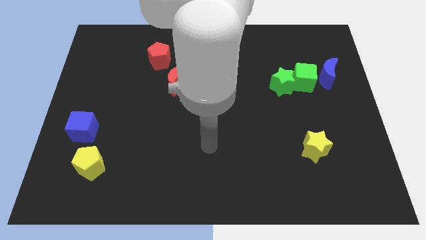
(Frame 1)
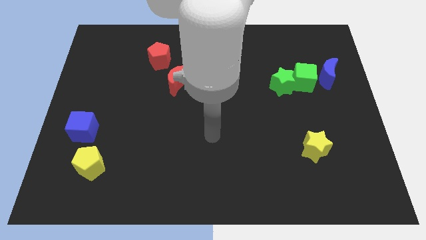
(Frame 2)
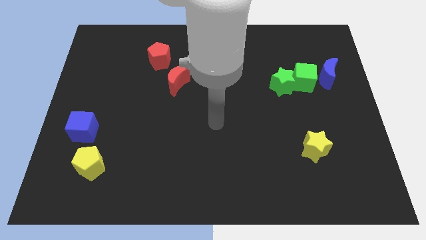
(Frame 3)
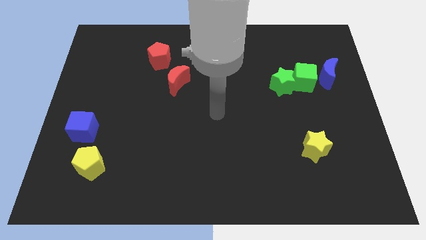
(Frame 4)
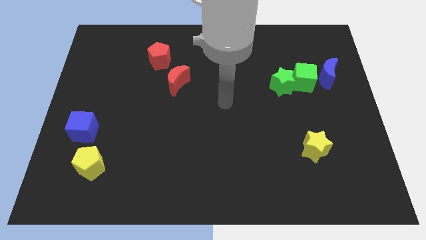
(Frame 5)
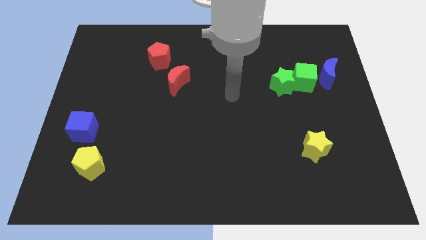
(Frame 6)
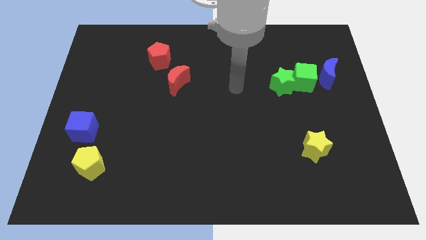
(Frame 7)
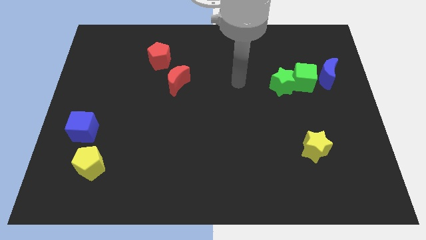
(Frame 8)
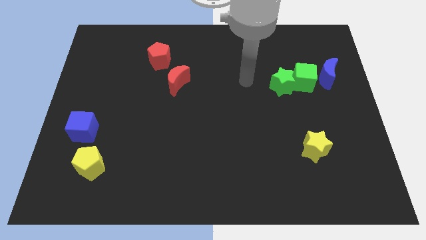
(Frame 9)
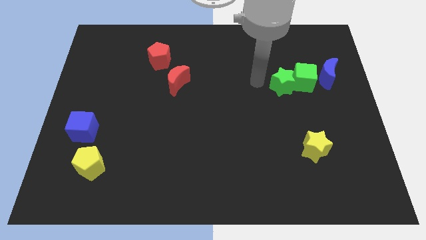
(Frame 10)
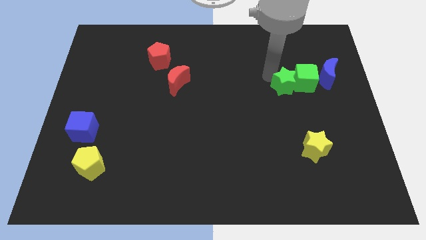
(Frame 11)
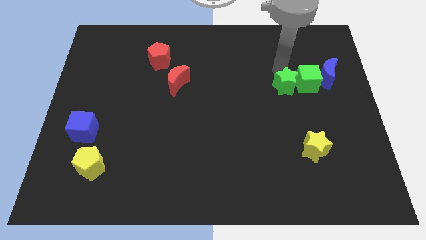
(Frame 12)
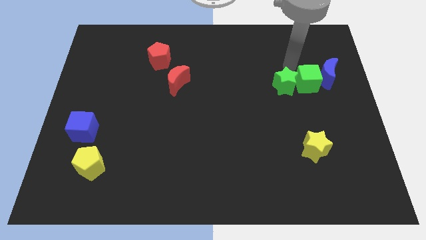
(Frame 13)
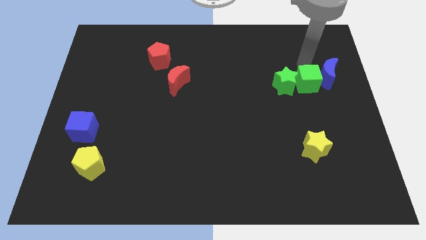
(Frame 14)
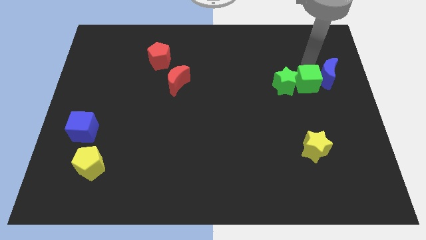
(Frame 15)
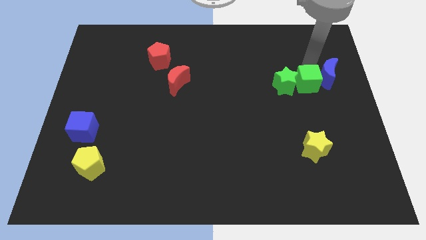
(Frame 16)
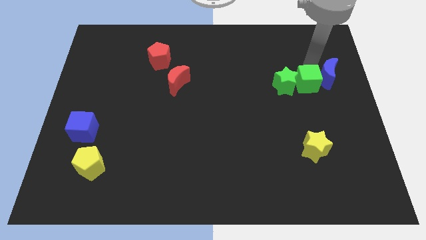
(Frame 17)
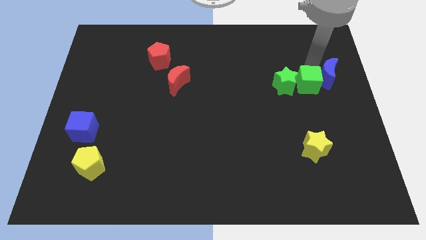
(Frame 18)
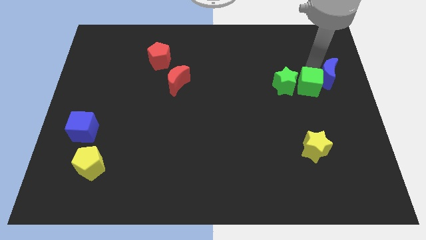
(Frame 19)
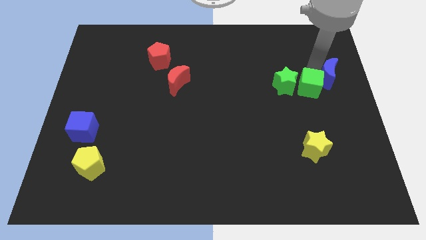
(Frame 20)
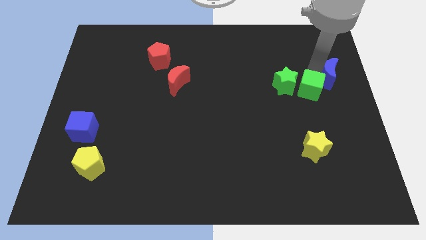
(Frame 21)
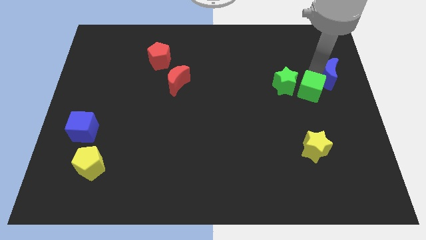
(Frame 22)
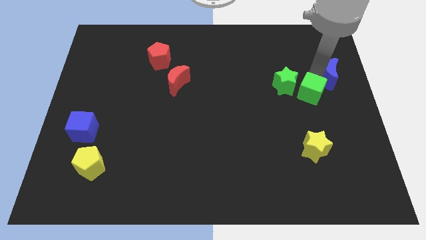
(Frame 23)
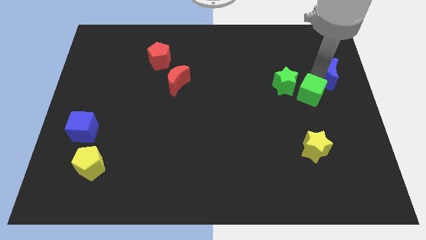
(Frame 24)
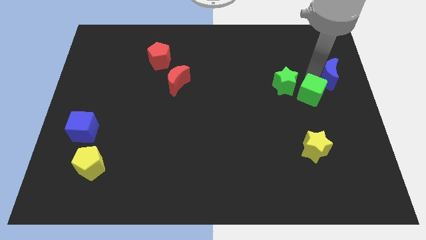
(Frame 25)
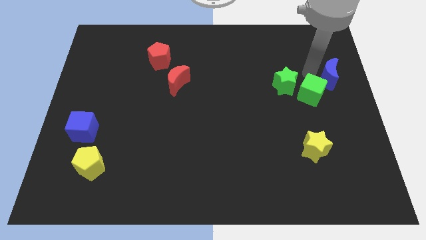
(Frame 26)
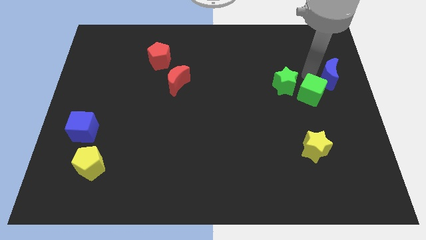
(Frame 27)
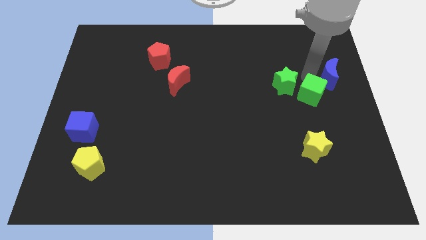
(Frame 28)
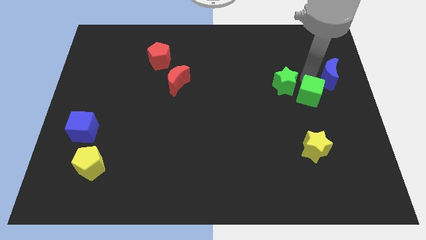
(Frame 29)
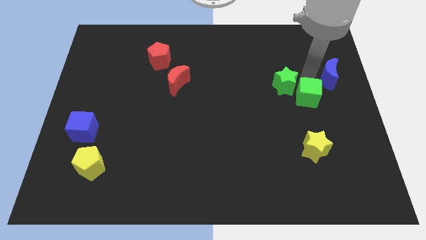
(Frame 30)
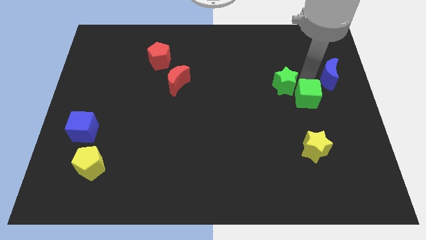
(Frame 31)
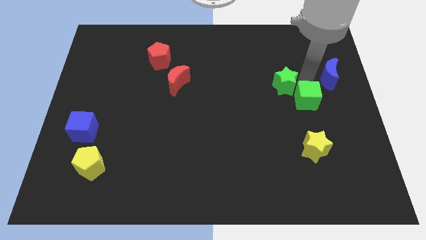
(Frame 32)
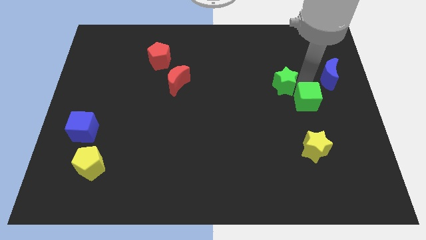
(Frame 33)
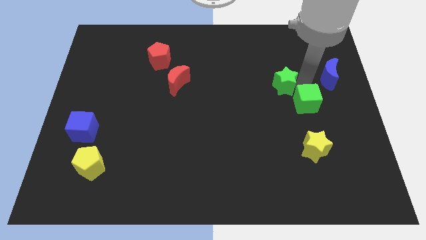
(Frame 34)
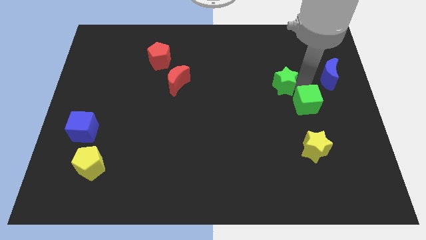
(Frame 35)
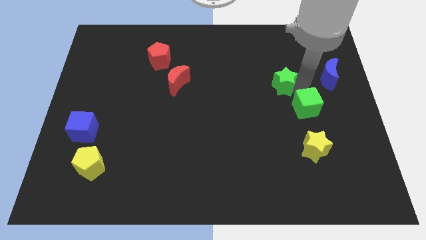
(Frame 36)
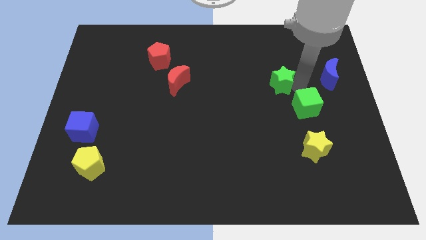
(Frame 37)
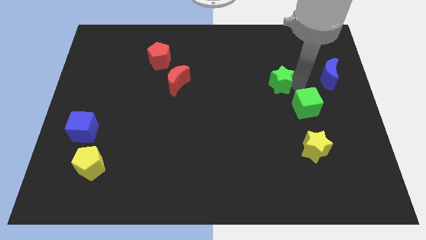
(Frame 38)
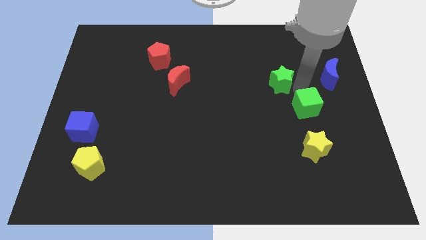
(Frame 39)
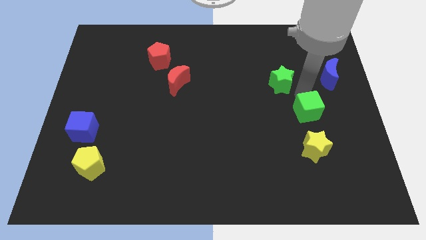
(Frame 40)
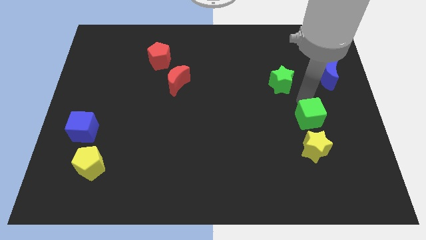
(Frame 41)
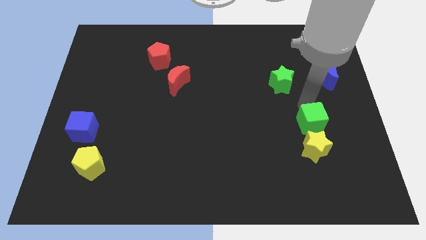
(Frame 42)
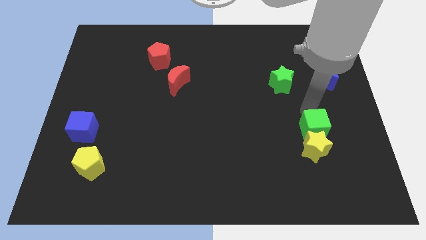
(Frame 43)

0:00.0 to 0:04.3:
move the green cube next to the yellow star

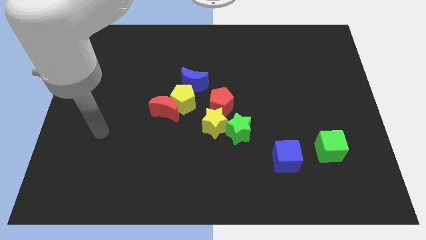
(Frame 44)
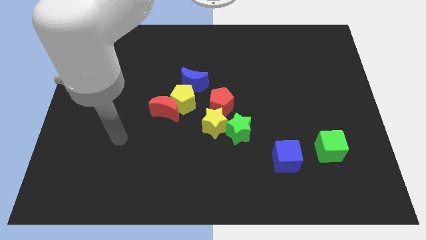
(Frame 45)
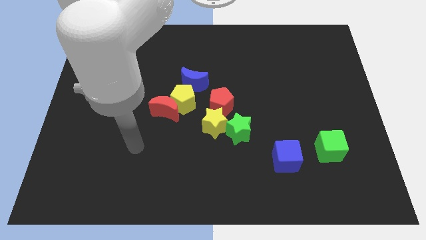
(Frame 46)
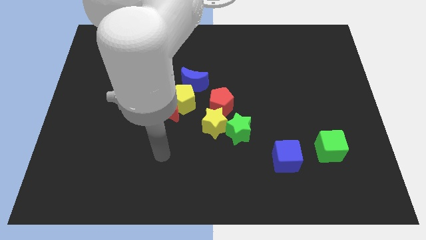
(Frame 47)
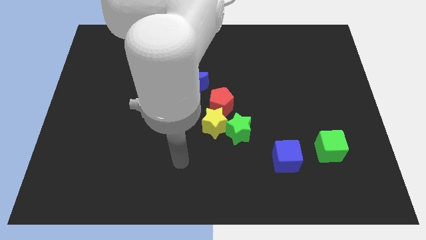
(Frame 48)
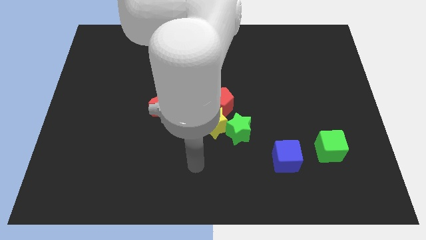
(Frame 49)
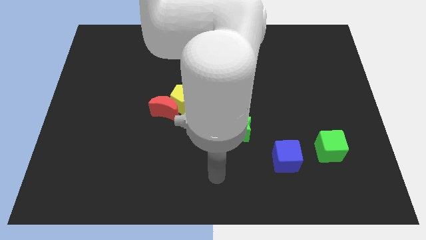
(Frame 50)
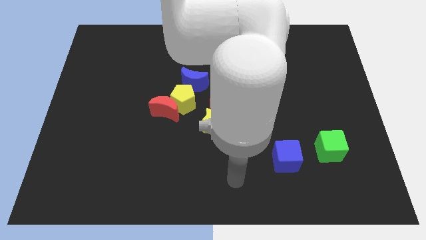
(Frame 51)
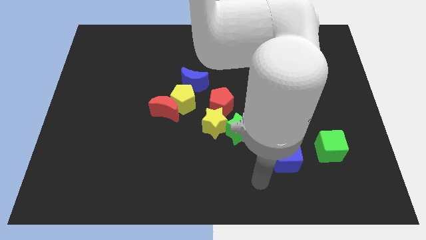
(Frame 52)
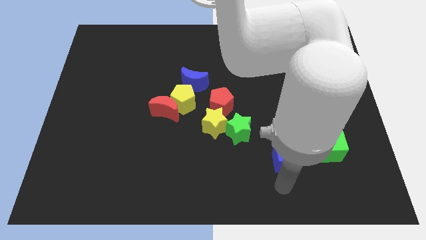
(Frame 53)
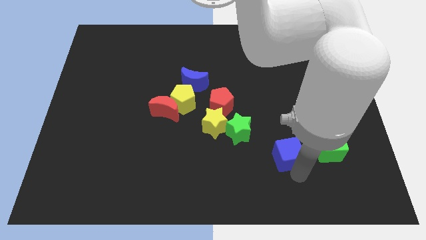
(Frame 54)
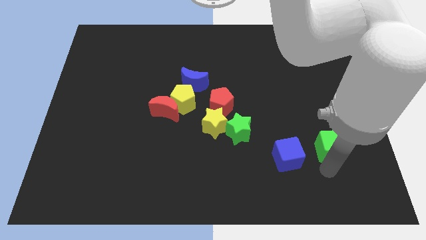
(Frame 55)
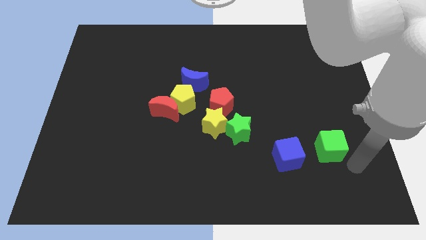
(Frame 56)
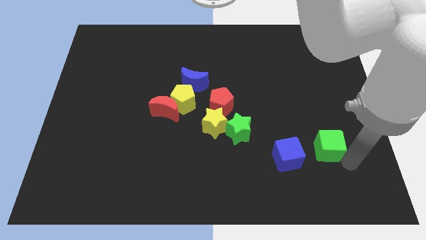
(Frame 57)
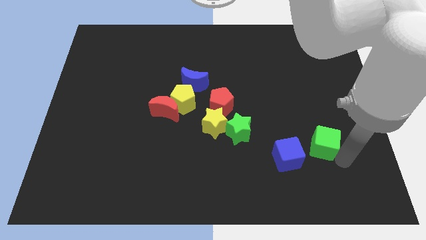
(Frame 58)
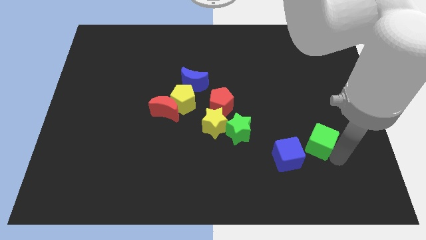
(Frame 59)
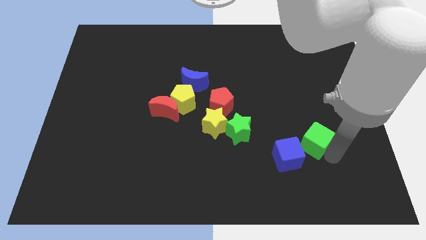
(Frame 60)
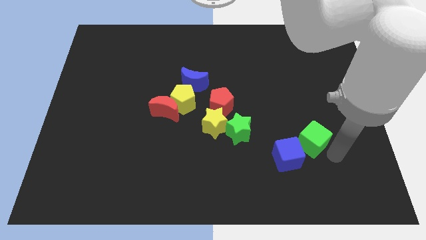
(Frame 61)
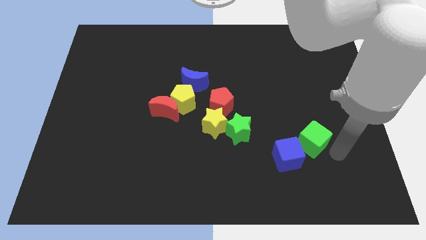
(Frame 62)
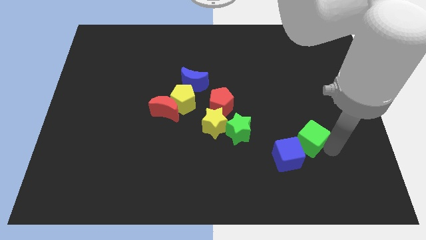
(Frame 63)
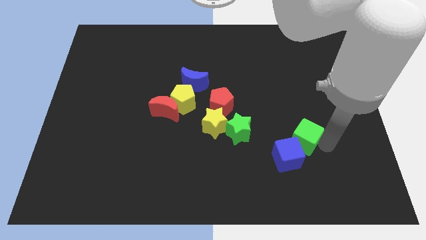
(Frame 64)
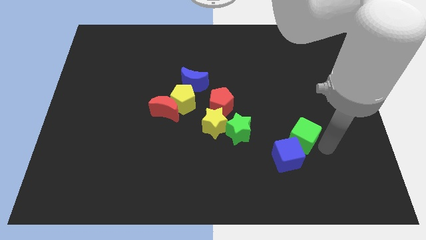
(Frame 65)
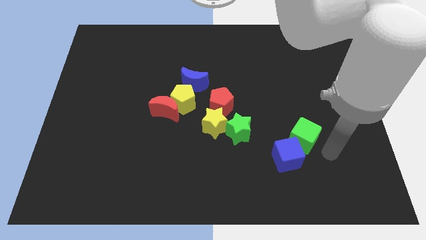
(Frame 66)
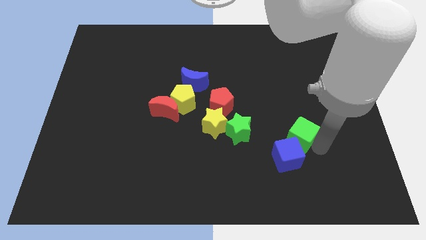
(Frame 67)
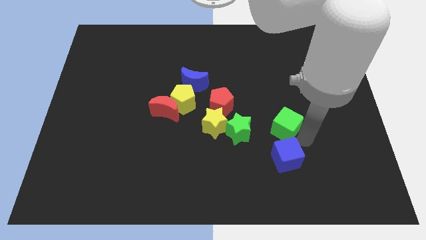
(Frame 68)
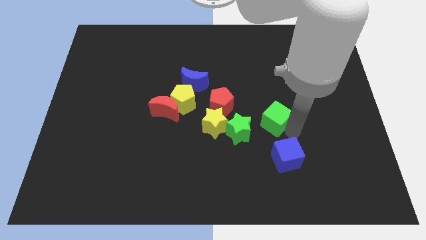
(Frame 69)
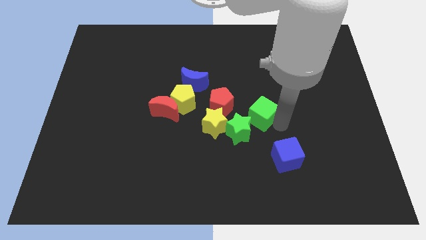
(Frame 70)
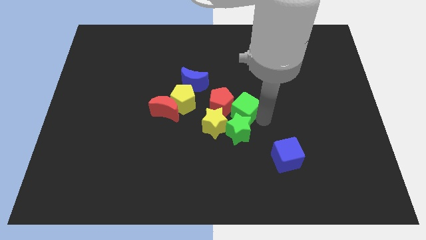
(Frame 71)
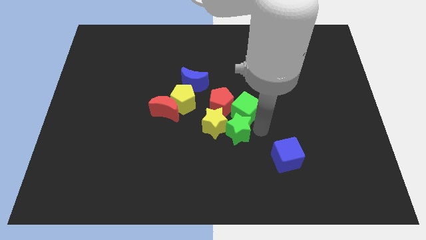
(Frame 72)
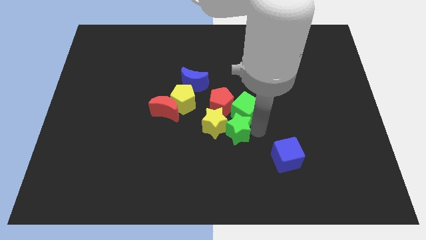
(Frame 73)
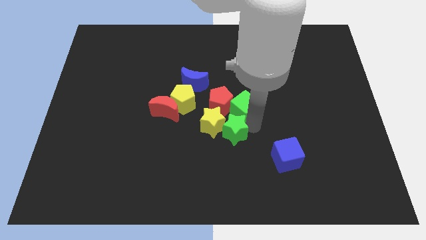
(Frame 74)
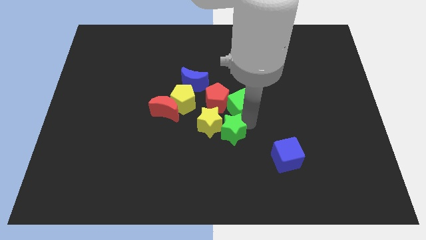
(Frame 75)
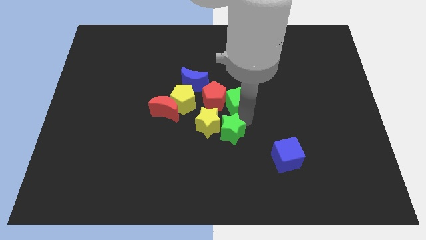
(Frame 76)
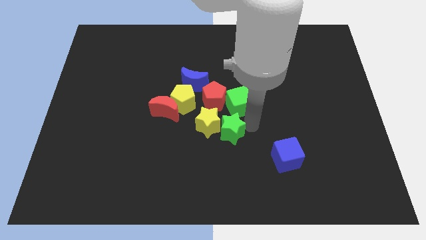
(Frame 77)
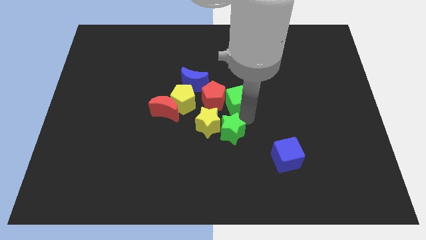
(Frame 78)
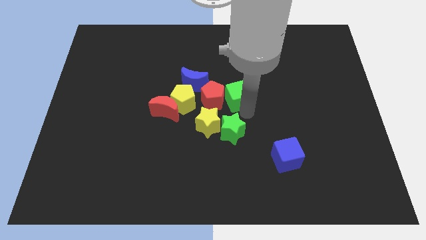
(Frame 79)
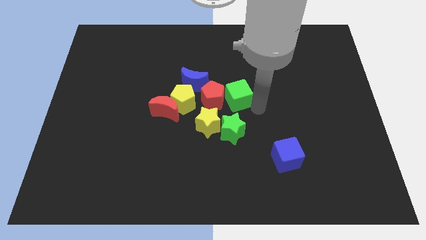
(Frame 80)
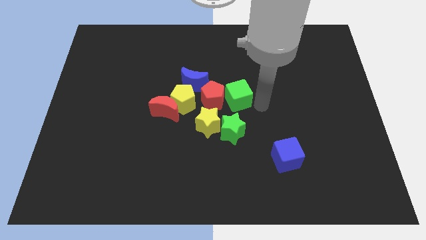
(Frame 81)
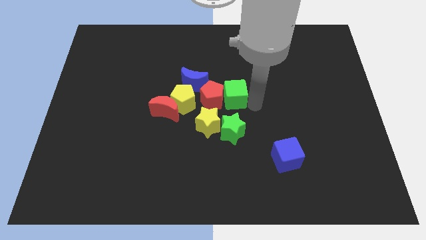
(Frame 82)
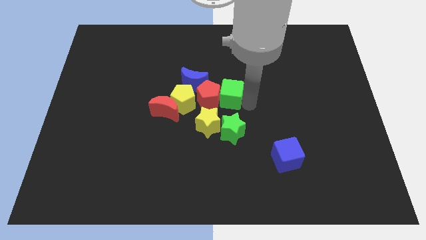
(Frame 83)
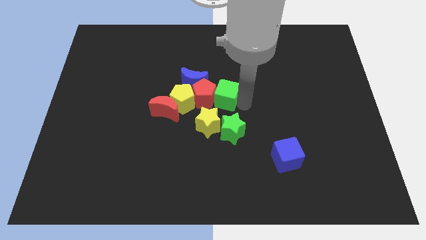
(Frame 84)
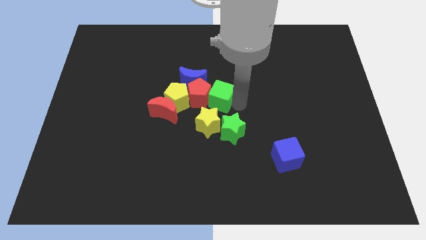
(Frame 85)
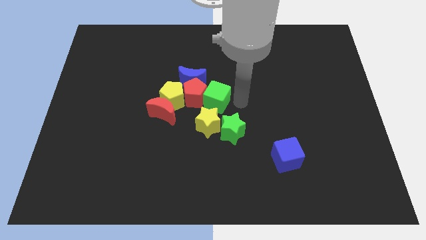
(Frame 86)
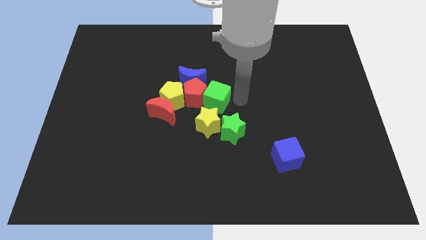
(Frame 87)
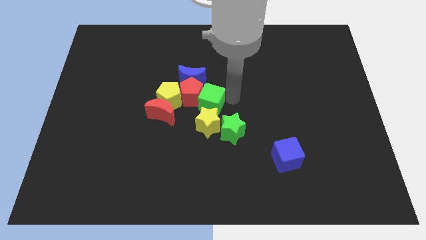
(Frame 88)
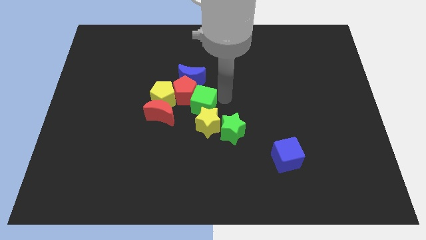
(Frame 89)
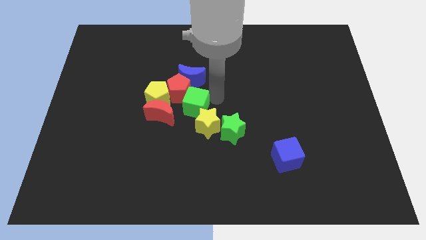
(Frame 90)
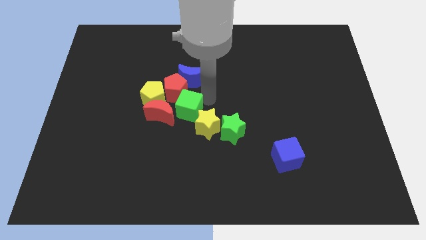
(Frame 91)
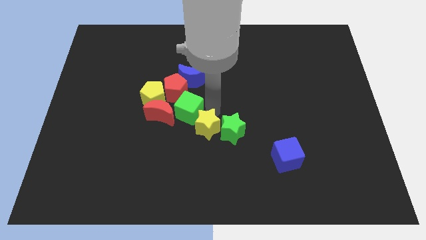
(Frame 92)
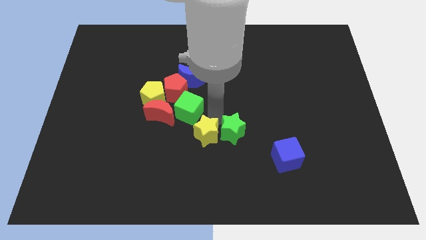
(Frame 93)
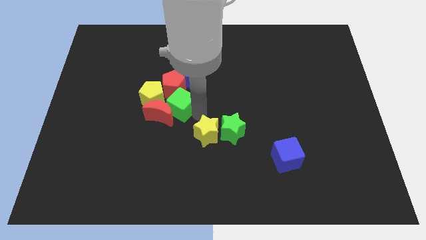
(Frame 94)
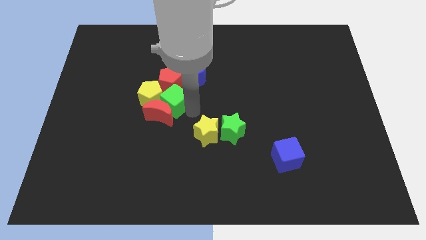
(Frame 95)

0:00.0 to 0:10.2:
move the green cube to the yellow pentagon
